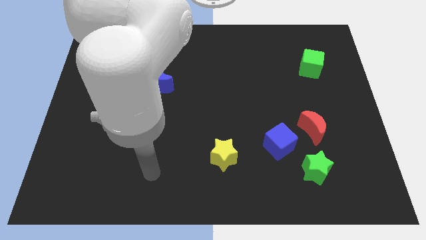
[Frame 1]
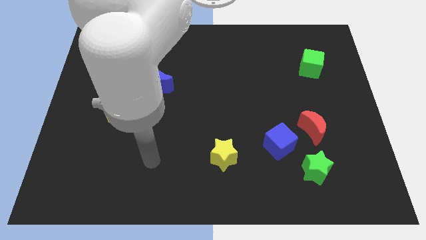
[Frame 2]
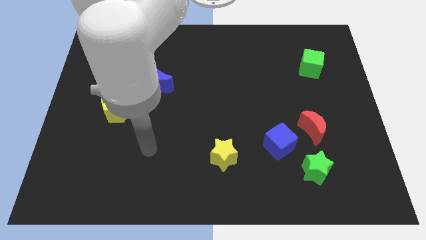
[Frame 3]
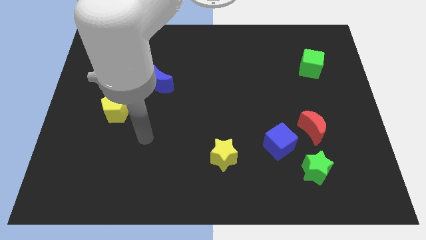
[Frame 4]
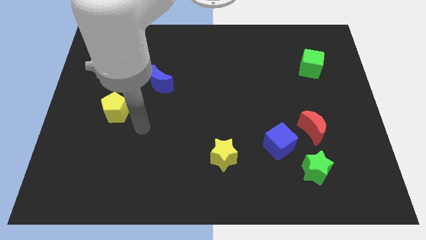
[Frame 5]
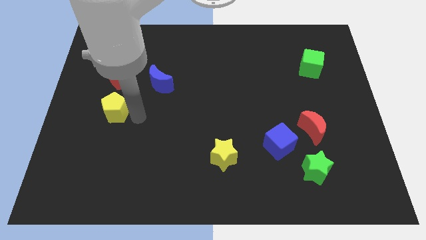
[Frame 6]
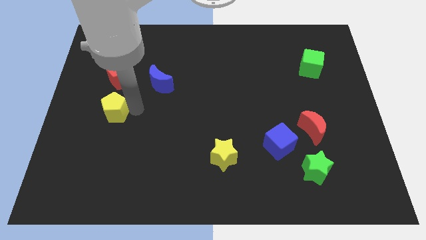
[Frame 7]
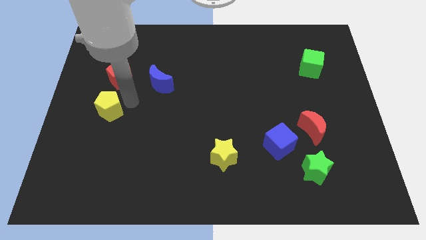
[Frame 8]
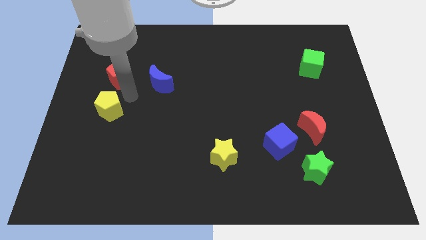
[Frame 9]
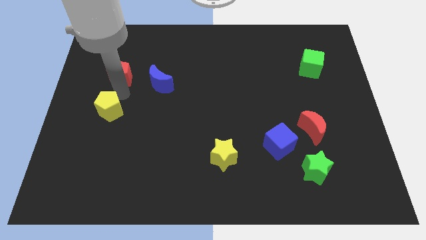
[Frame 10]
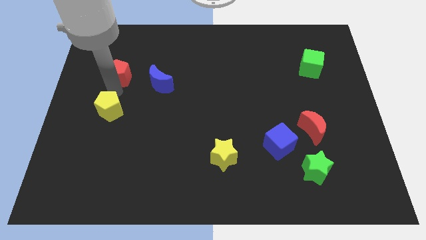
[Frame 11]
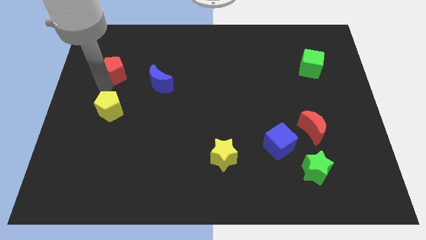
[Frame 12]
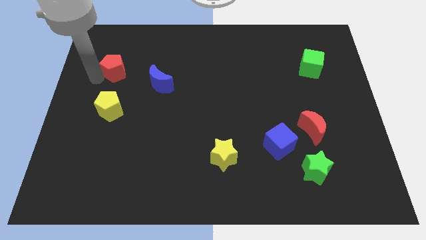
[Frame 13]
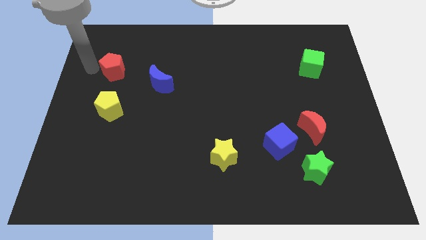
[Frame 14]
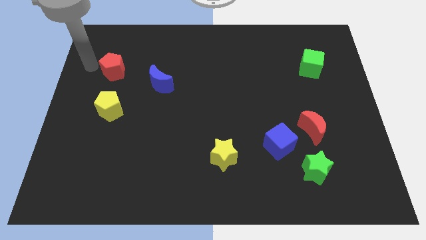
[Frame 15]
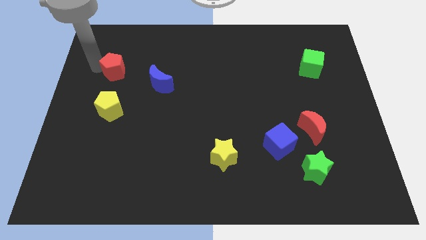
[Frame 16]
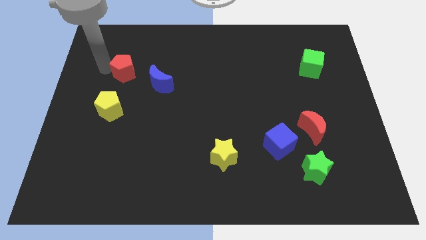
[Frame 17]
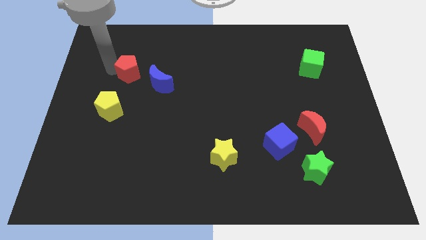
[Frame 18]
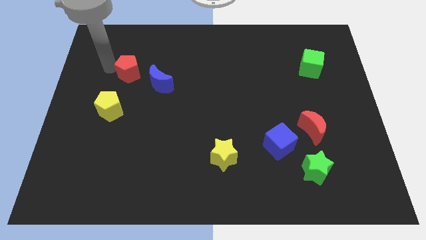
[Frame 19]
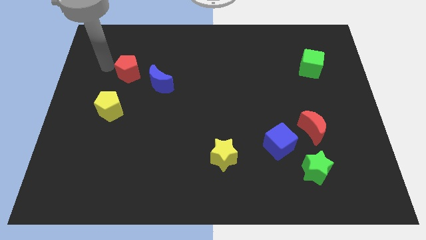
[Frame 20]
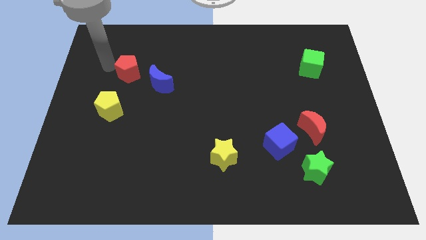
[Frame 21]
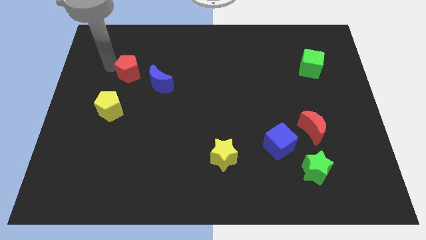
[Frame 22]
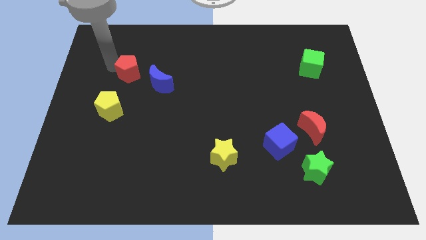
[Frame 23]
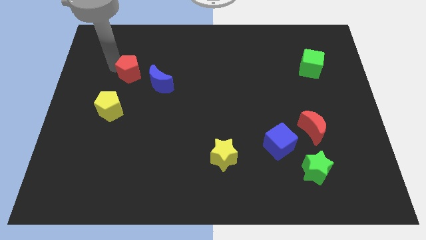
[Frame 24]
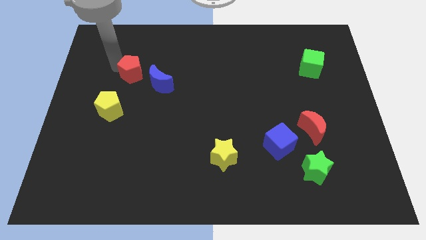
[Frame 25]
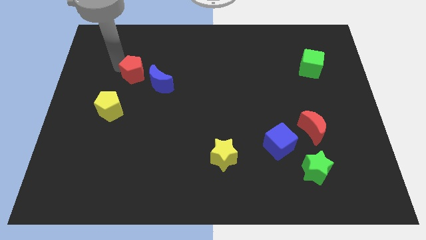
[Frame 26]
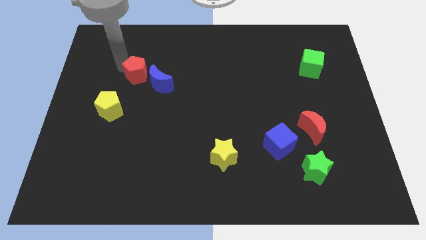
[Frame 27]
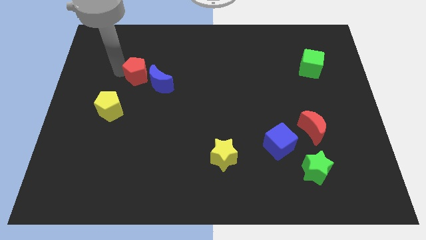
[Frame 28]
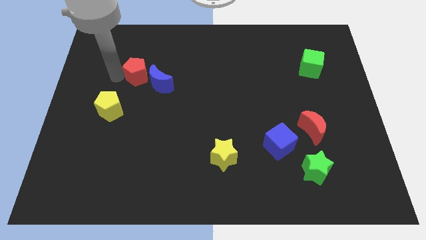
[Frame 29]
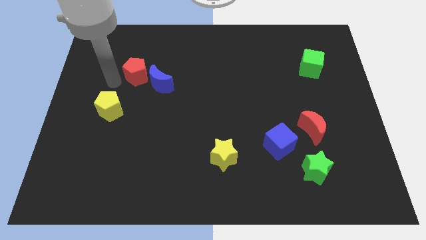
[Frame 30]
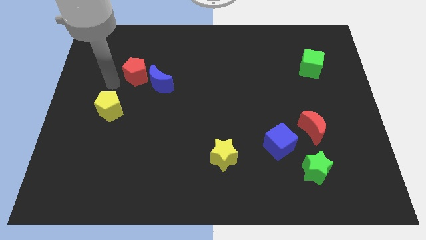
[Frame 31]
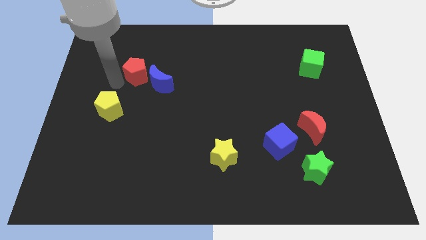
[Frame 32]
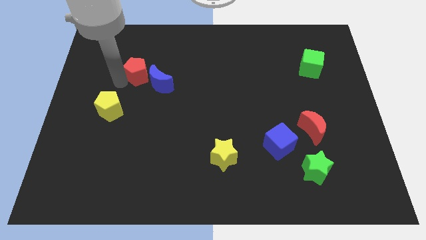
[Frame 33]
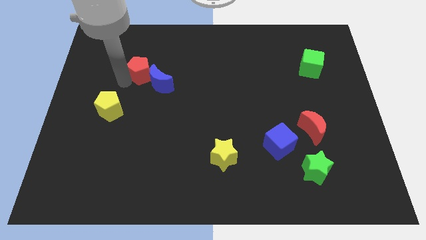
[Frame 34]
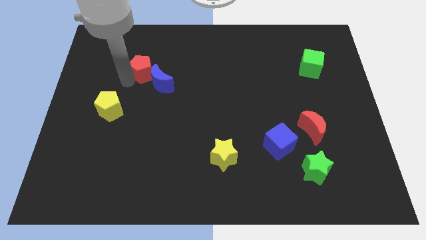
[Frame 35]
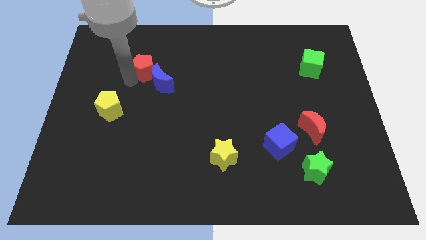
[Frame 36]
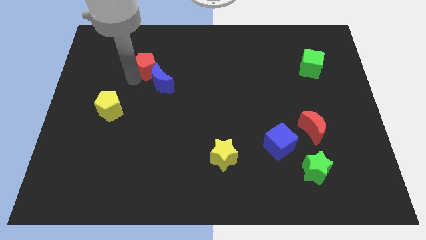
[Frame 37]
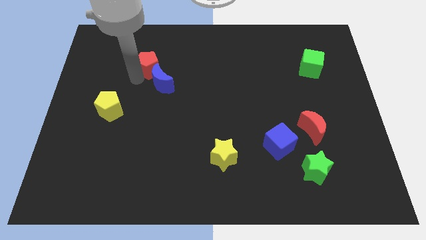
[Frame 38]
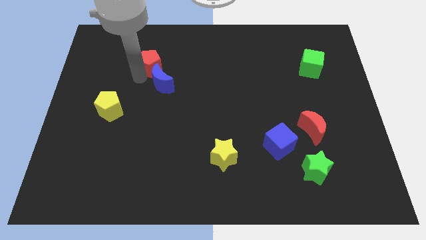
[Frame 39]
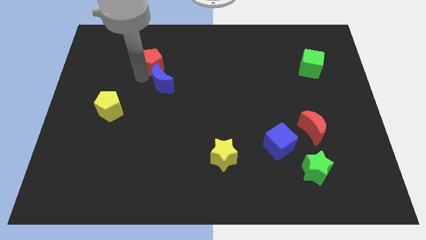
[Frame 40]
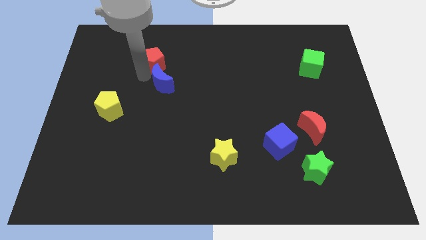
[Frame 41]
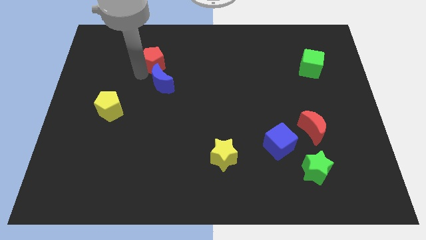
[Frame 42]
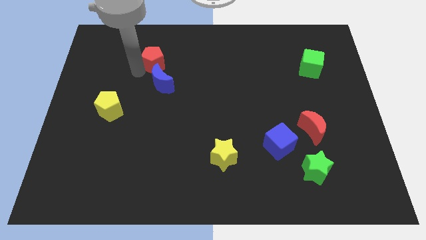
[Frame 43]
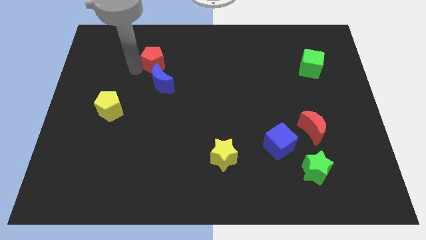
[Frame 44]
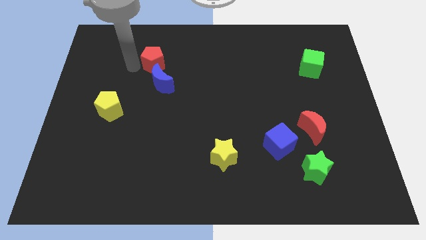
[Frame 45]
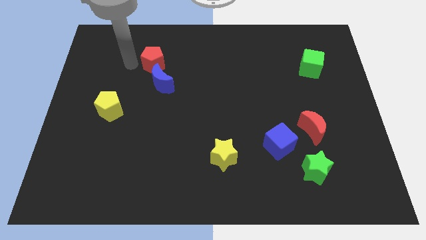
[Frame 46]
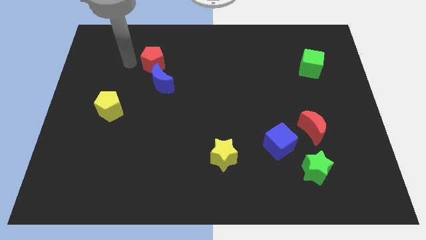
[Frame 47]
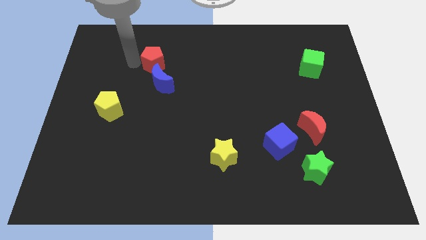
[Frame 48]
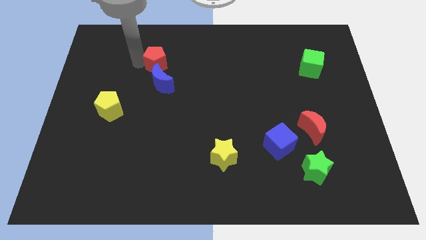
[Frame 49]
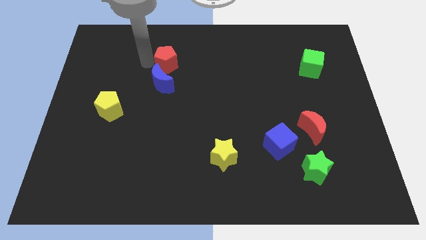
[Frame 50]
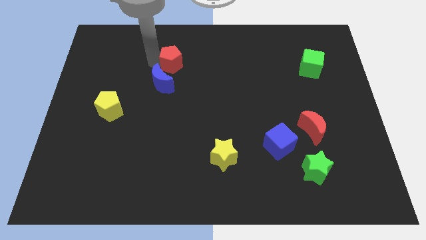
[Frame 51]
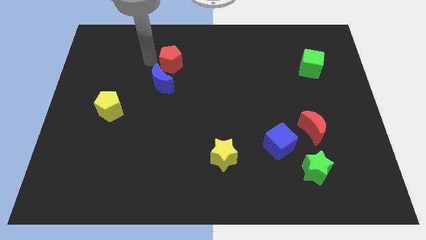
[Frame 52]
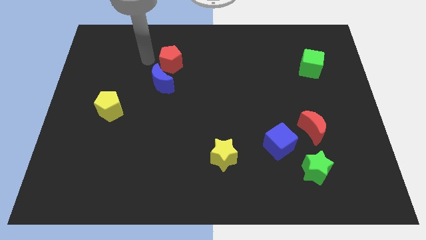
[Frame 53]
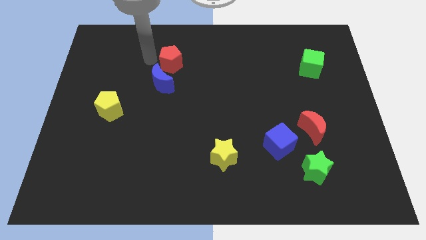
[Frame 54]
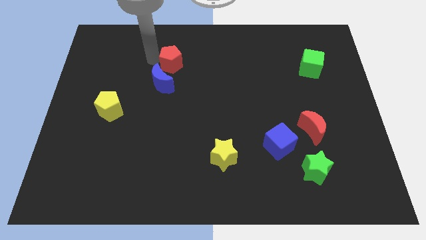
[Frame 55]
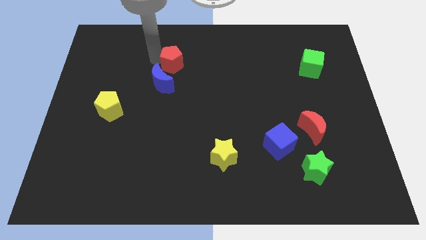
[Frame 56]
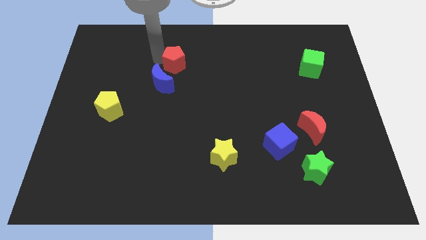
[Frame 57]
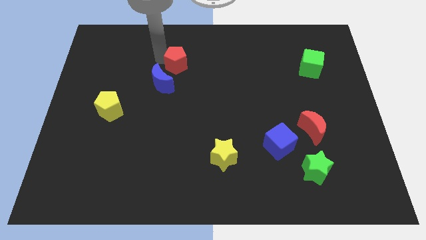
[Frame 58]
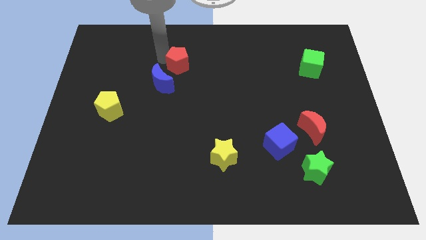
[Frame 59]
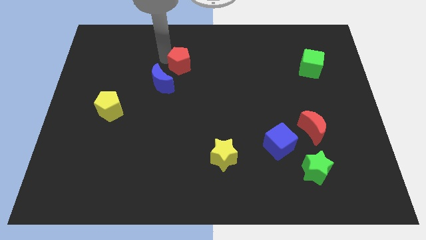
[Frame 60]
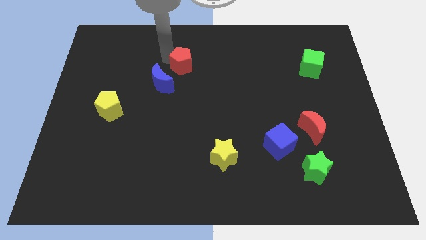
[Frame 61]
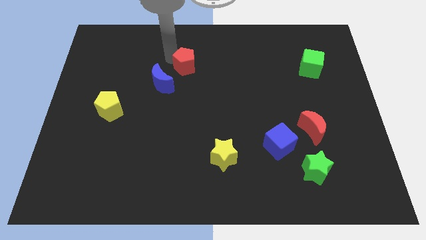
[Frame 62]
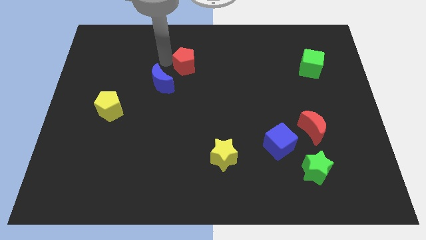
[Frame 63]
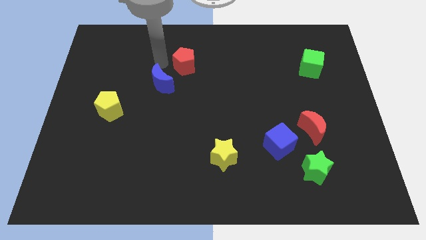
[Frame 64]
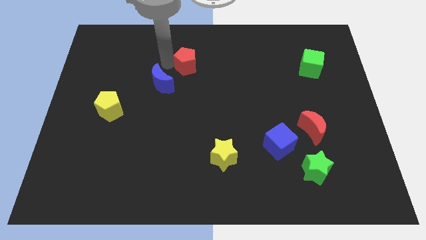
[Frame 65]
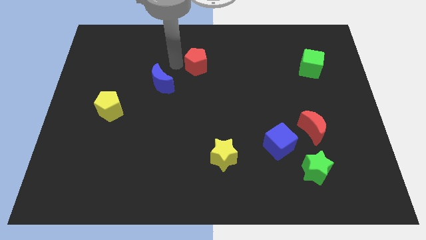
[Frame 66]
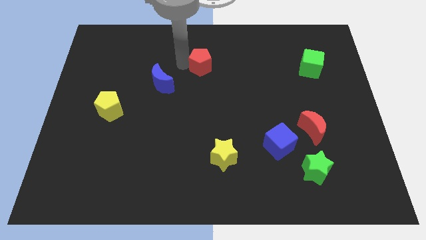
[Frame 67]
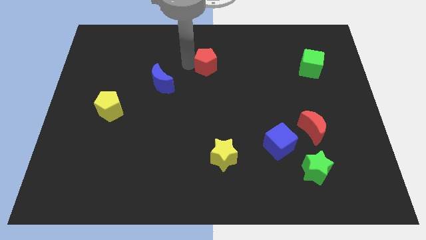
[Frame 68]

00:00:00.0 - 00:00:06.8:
slide the red pentagon to the right

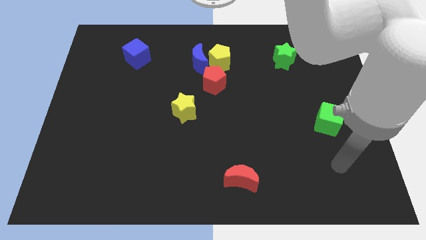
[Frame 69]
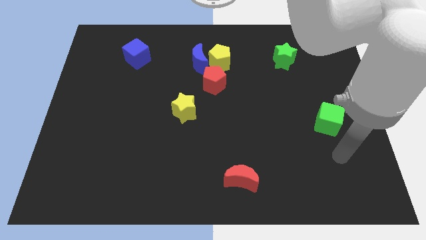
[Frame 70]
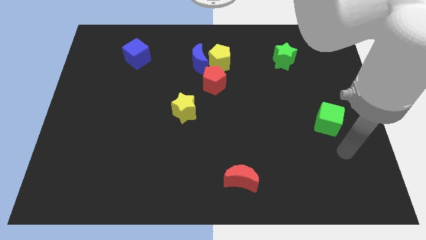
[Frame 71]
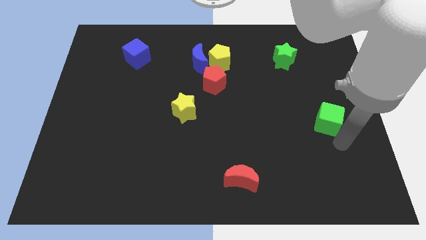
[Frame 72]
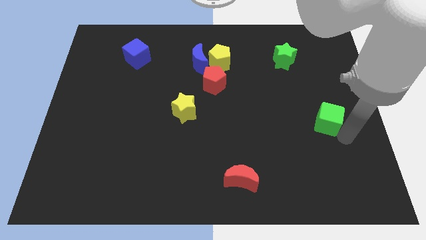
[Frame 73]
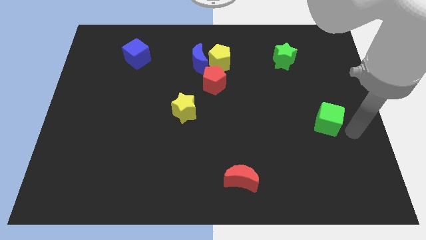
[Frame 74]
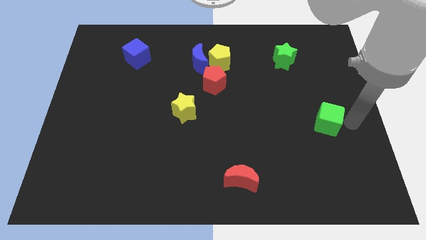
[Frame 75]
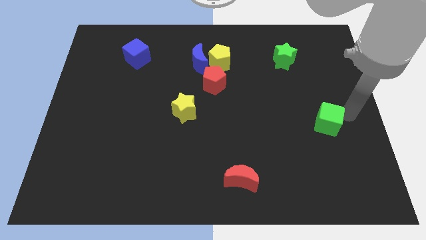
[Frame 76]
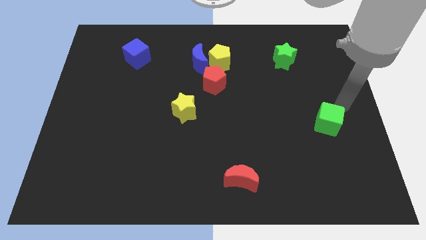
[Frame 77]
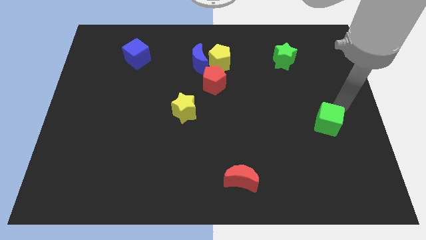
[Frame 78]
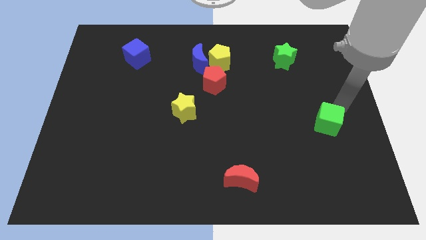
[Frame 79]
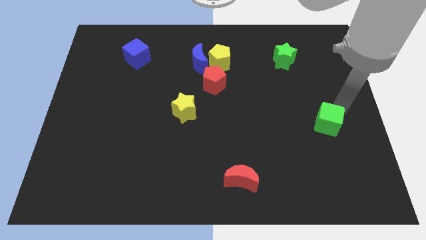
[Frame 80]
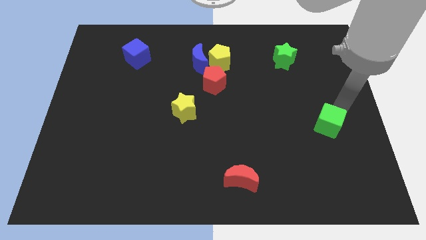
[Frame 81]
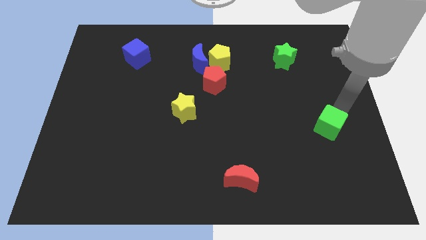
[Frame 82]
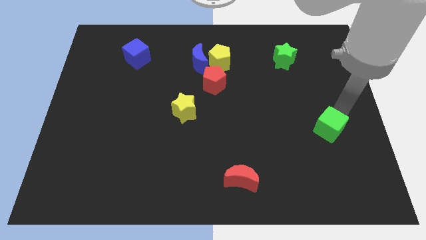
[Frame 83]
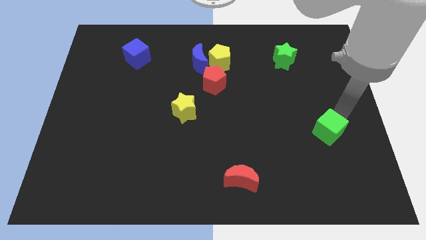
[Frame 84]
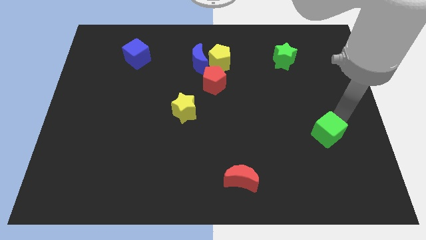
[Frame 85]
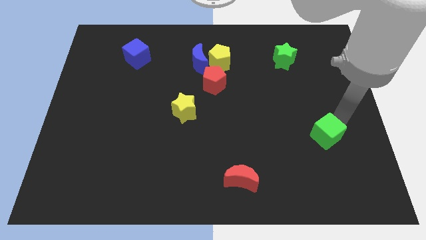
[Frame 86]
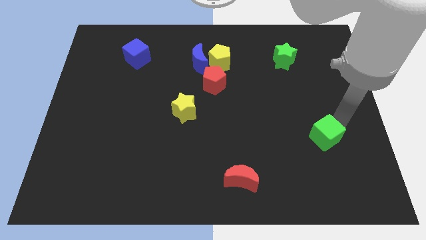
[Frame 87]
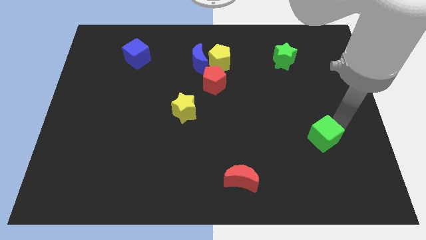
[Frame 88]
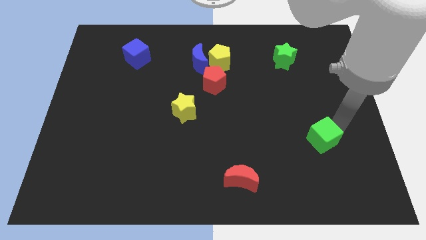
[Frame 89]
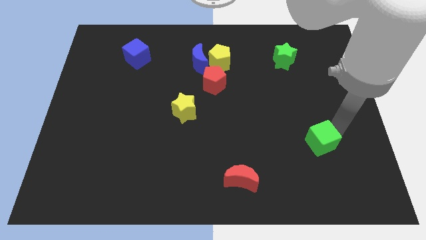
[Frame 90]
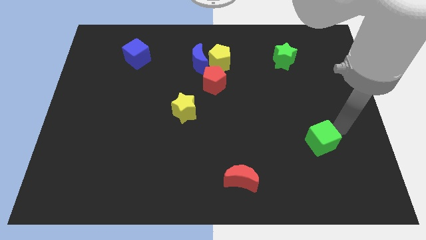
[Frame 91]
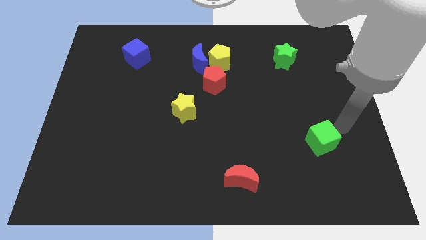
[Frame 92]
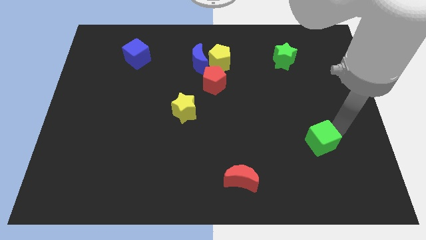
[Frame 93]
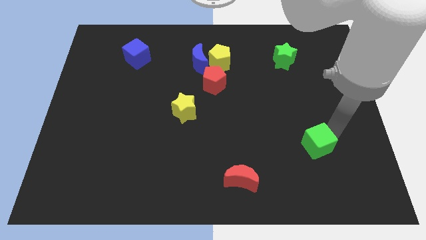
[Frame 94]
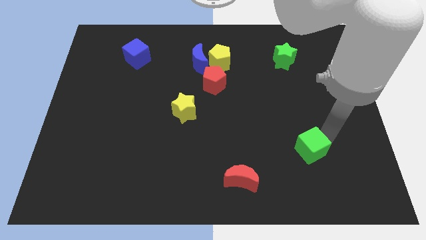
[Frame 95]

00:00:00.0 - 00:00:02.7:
move the green cube down and then to the left slightly
